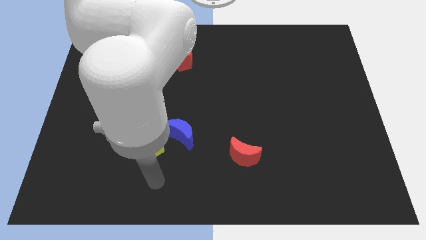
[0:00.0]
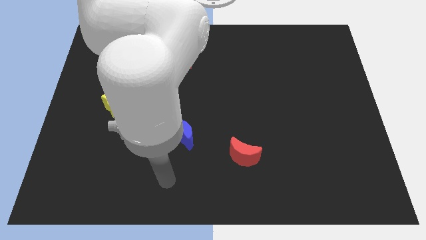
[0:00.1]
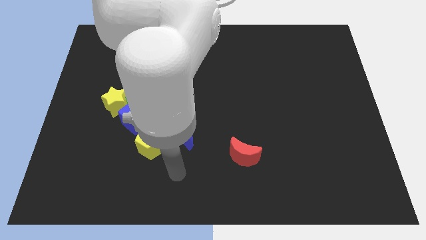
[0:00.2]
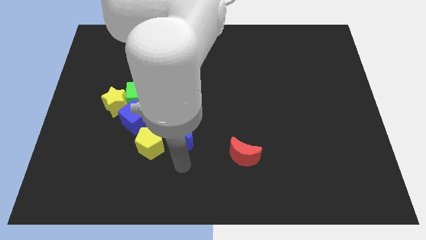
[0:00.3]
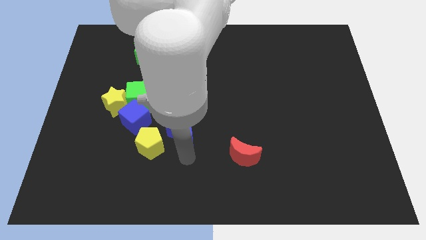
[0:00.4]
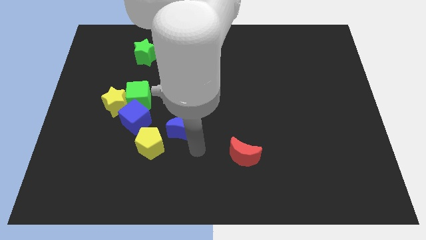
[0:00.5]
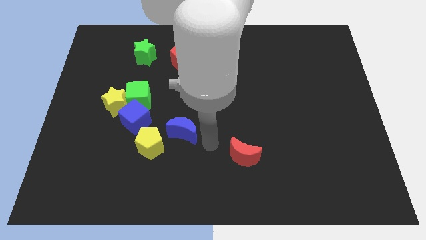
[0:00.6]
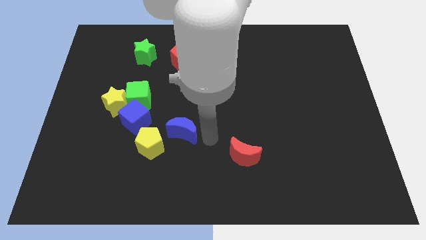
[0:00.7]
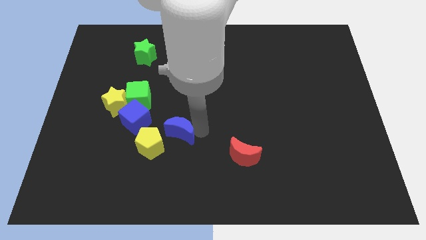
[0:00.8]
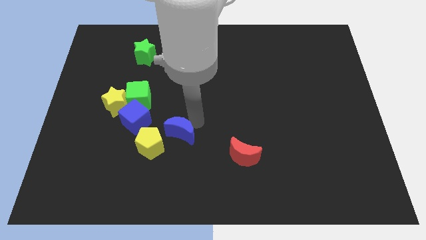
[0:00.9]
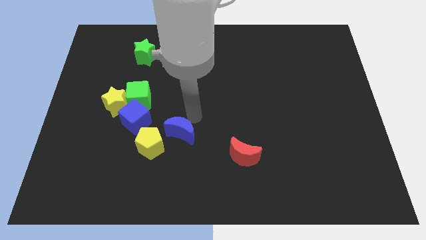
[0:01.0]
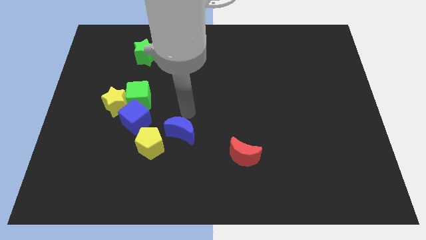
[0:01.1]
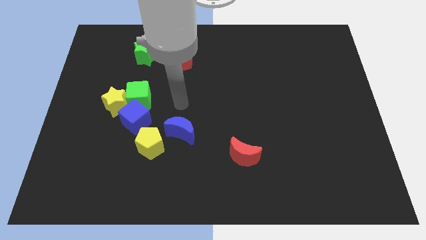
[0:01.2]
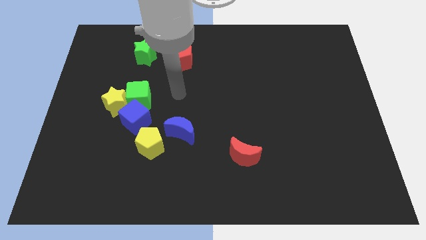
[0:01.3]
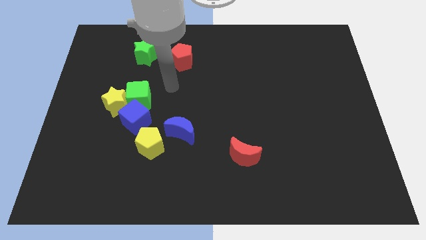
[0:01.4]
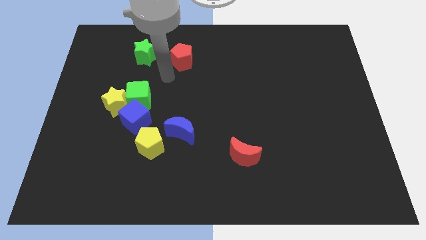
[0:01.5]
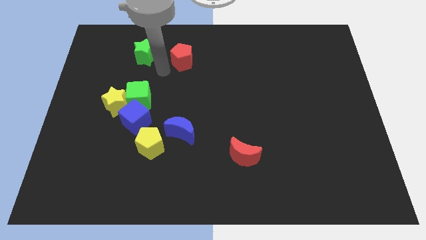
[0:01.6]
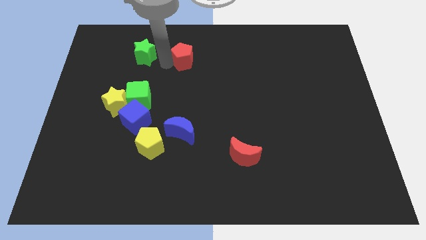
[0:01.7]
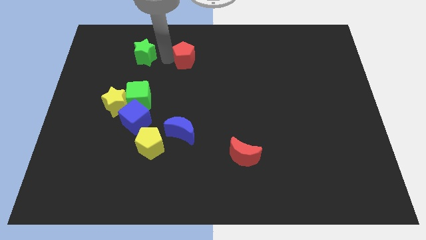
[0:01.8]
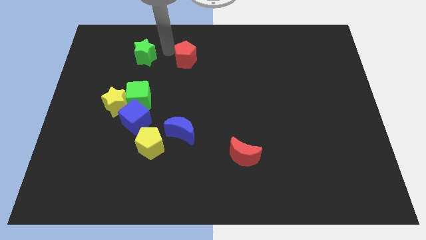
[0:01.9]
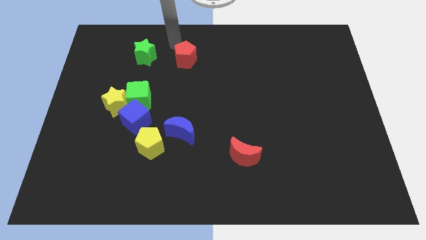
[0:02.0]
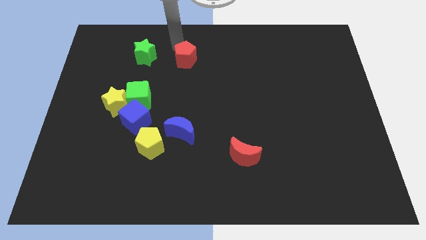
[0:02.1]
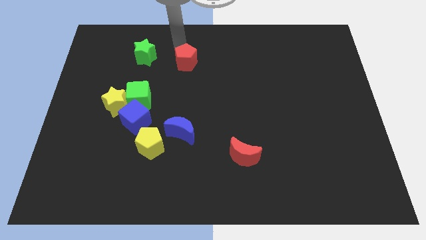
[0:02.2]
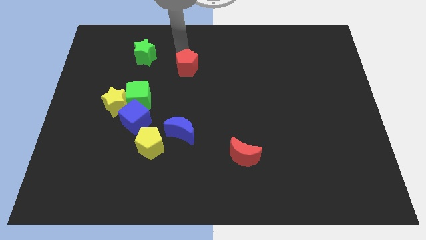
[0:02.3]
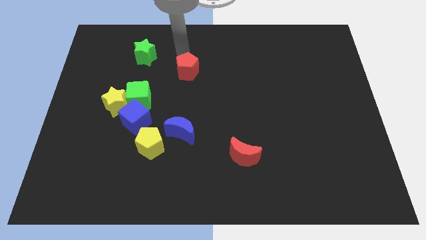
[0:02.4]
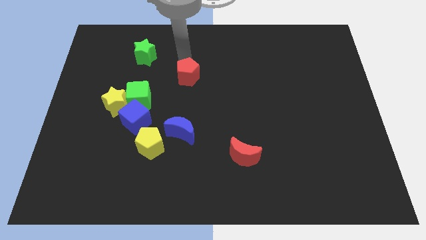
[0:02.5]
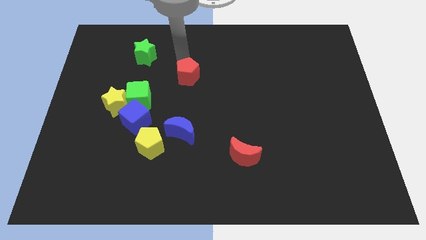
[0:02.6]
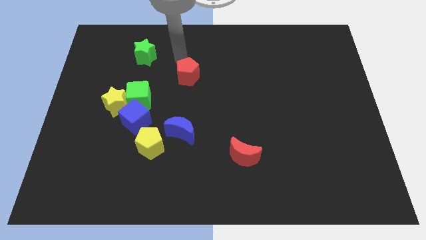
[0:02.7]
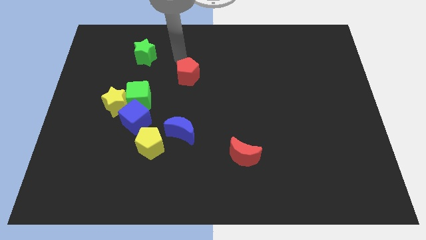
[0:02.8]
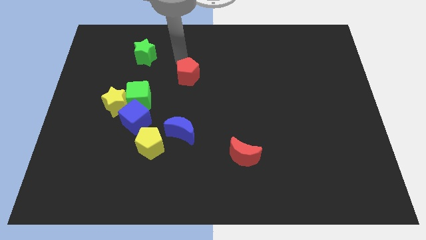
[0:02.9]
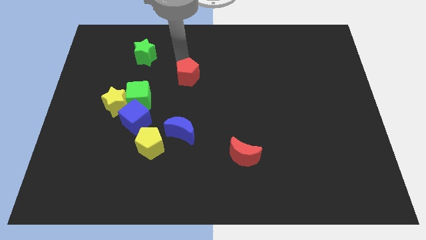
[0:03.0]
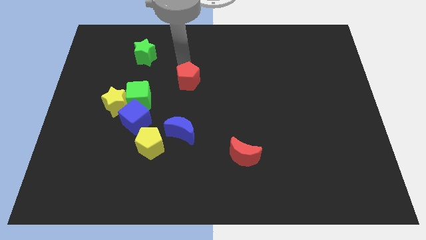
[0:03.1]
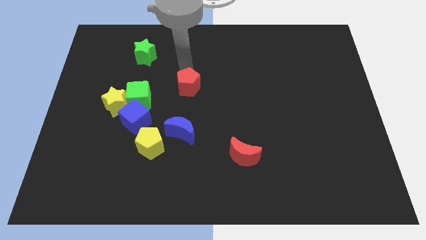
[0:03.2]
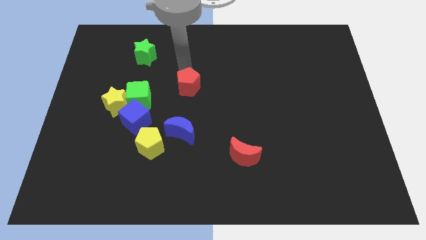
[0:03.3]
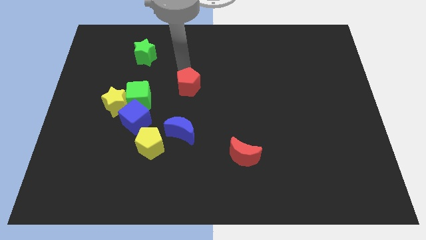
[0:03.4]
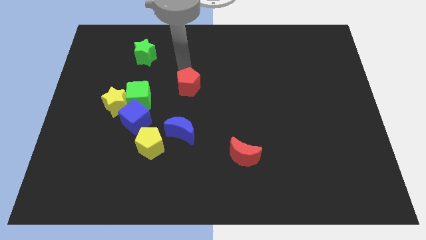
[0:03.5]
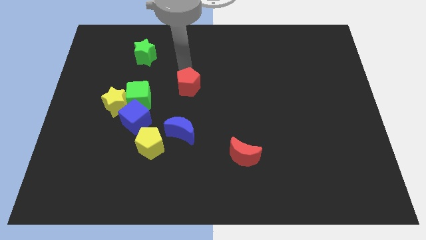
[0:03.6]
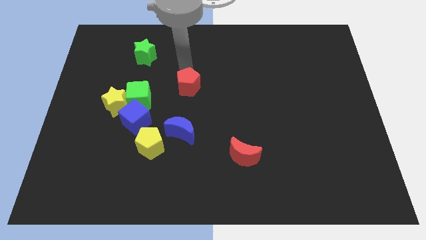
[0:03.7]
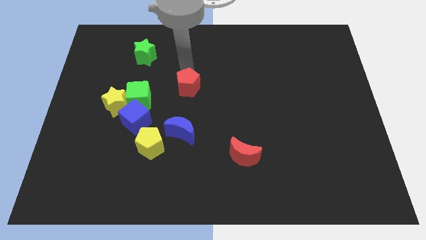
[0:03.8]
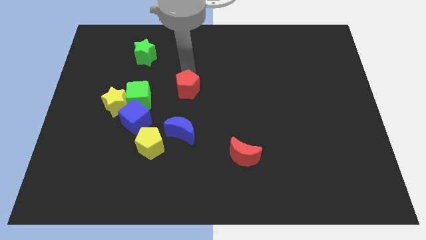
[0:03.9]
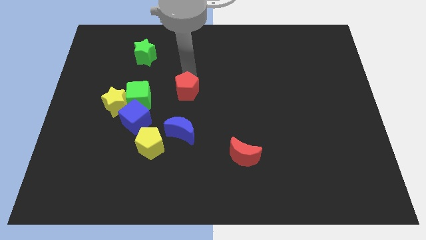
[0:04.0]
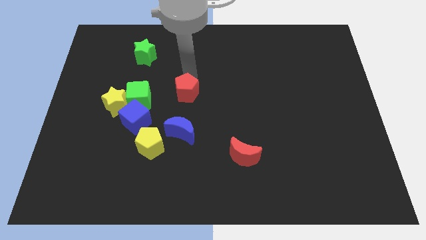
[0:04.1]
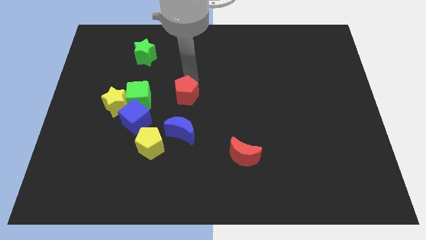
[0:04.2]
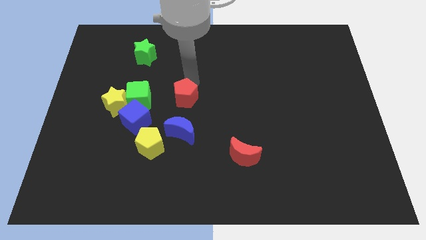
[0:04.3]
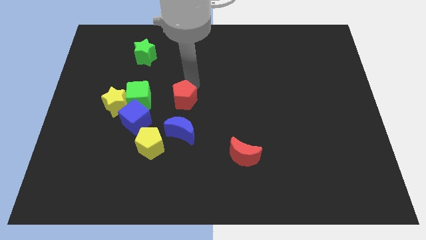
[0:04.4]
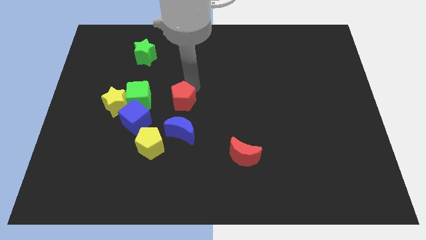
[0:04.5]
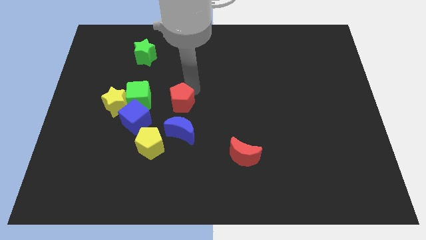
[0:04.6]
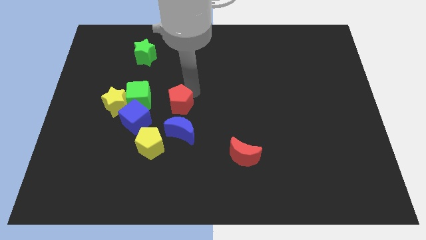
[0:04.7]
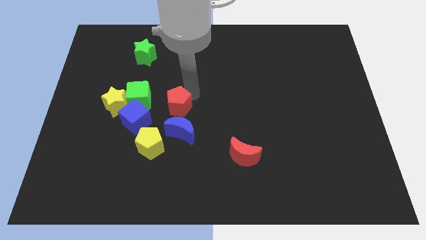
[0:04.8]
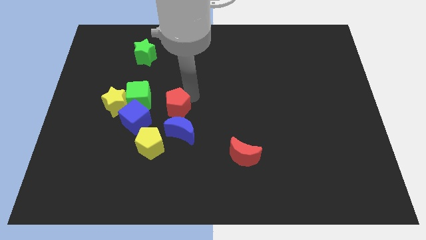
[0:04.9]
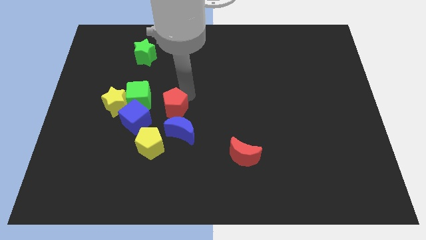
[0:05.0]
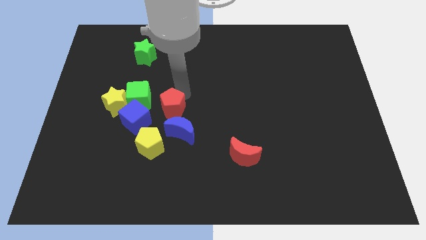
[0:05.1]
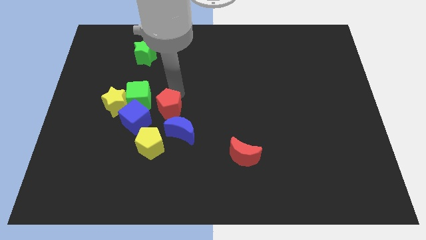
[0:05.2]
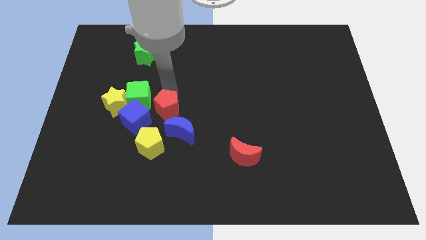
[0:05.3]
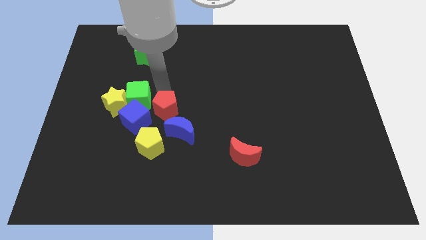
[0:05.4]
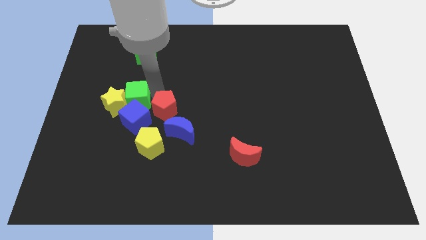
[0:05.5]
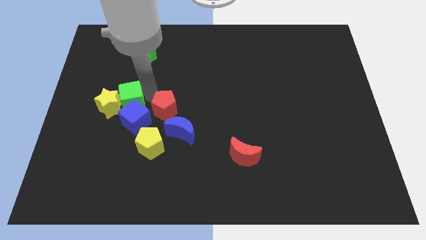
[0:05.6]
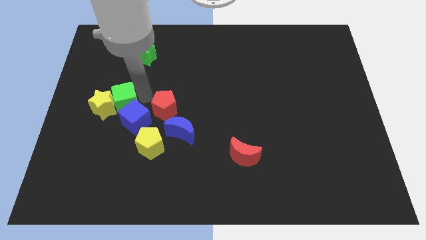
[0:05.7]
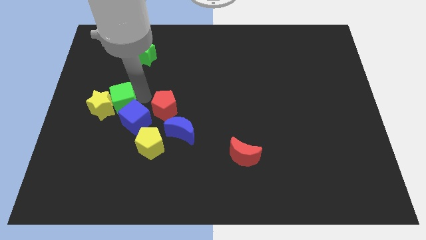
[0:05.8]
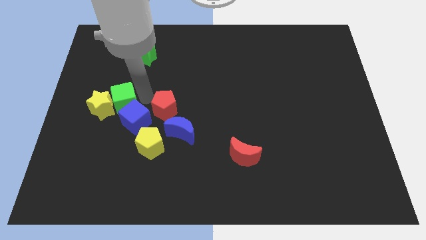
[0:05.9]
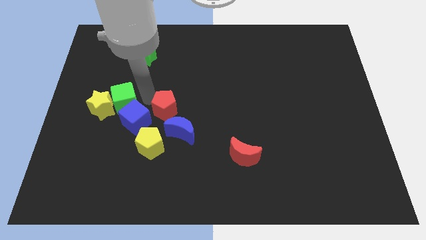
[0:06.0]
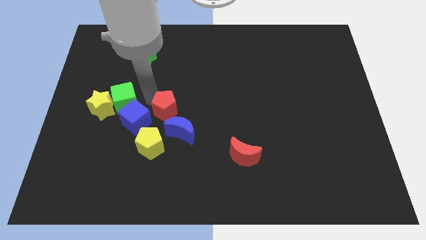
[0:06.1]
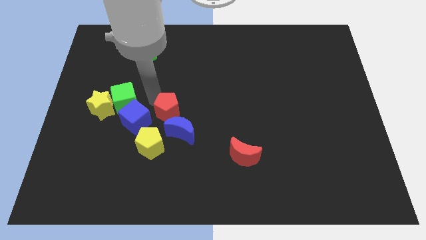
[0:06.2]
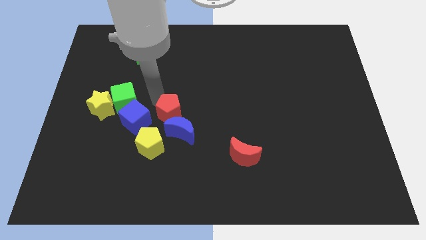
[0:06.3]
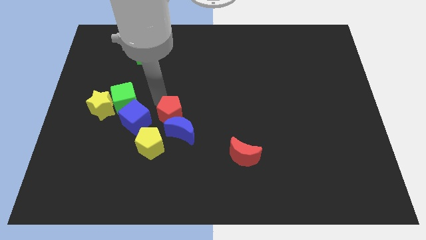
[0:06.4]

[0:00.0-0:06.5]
slide the red pentagon close to the blue moon

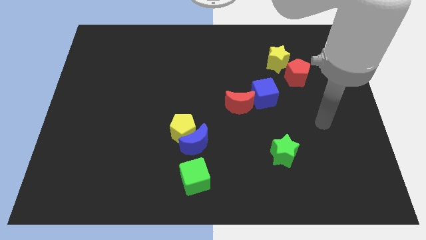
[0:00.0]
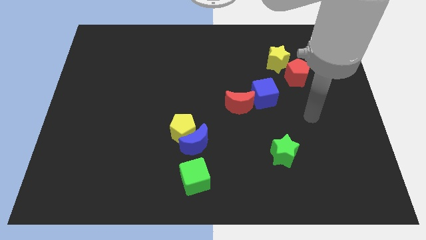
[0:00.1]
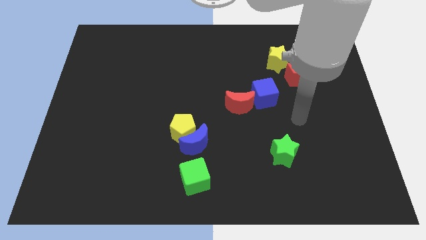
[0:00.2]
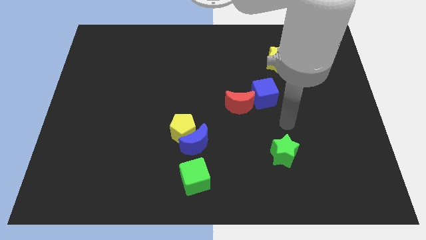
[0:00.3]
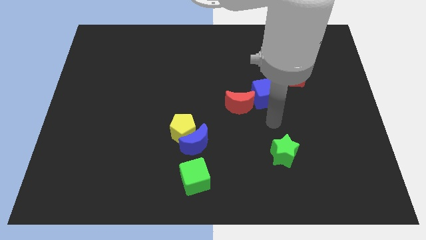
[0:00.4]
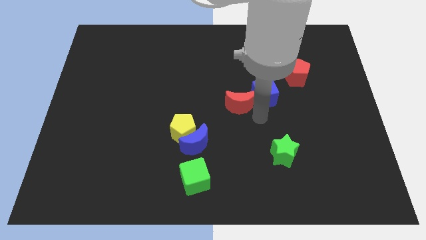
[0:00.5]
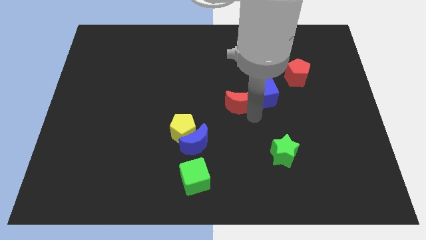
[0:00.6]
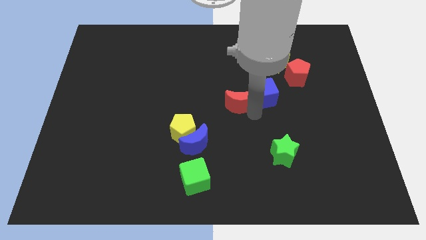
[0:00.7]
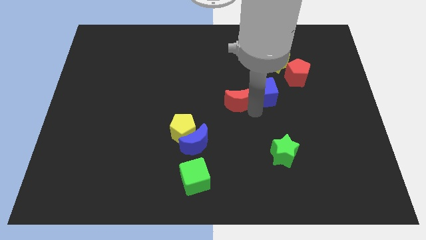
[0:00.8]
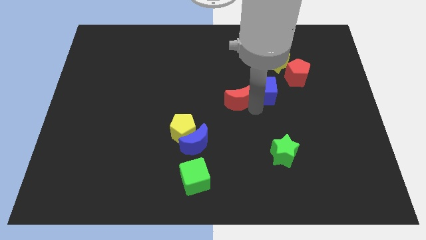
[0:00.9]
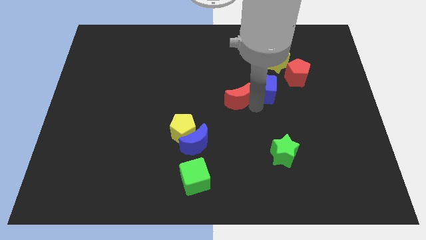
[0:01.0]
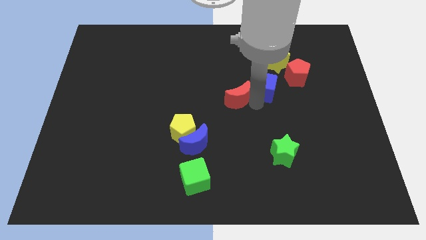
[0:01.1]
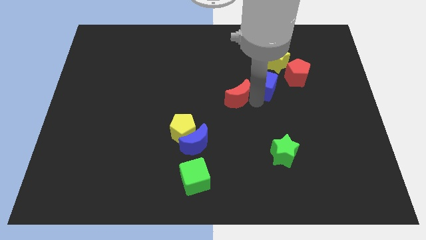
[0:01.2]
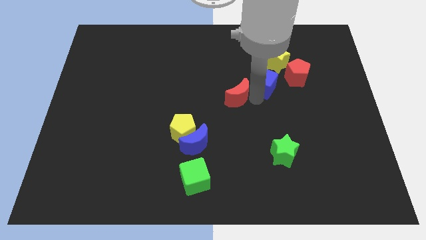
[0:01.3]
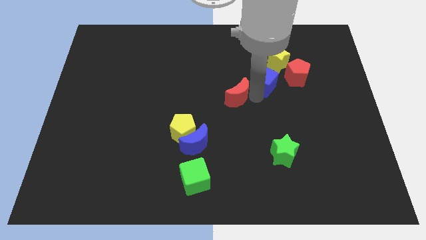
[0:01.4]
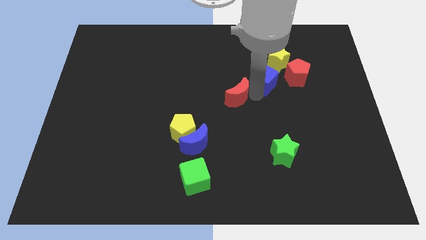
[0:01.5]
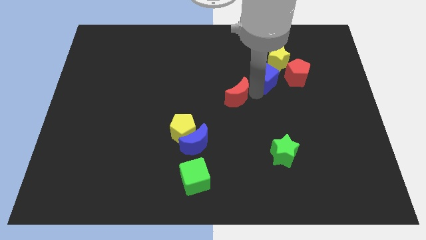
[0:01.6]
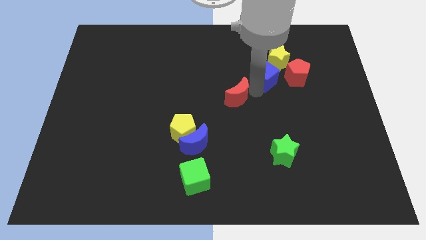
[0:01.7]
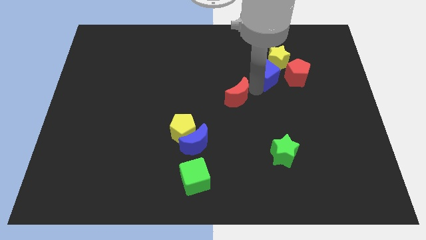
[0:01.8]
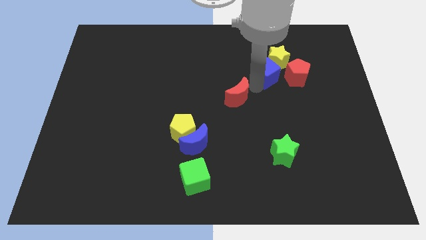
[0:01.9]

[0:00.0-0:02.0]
slide the blue cube towards the yellow star
